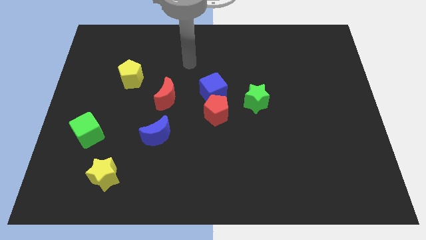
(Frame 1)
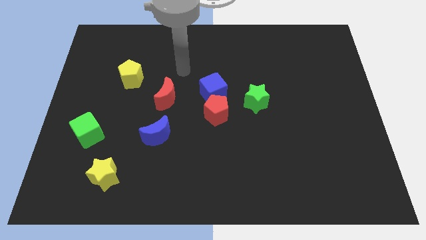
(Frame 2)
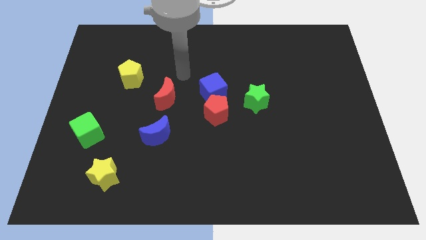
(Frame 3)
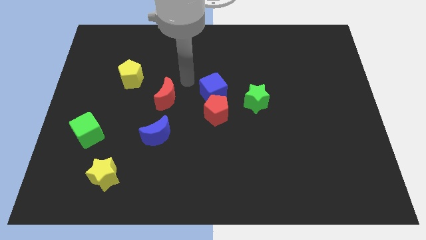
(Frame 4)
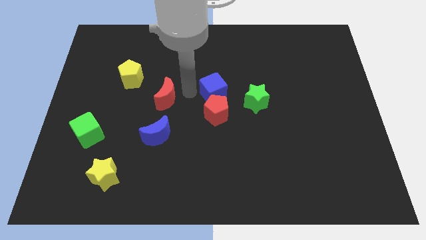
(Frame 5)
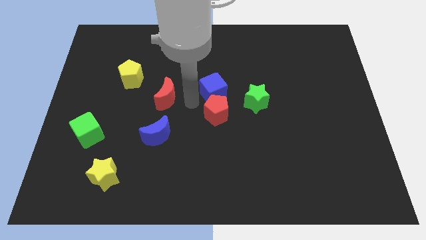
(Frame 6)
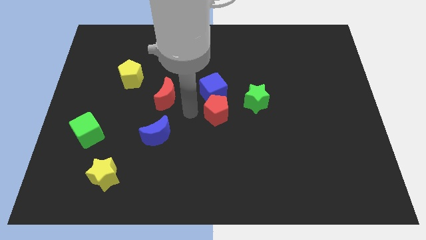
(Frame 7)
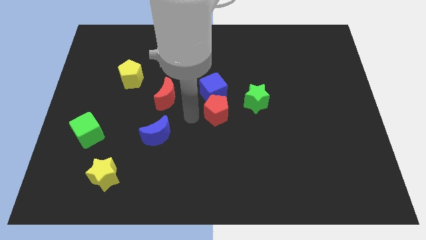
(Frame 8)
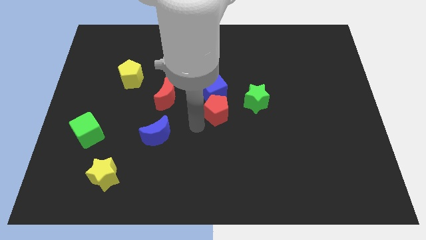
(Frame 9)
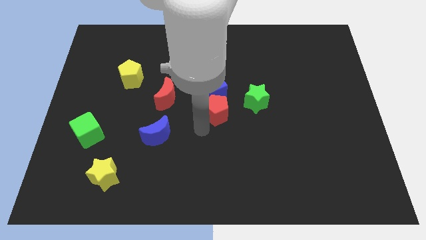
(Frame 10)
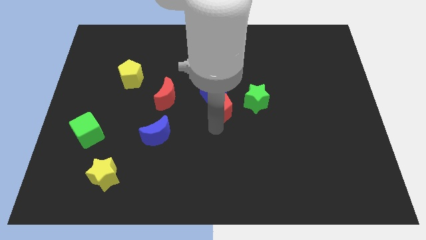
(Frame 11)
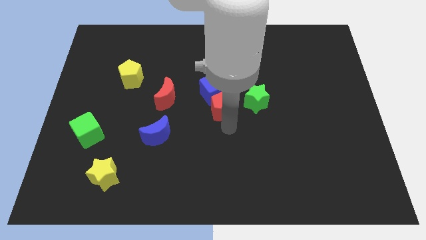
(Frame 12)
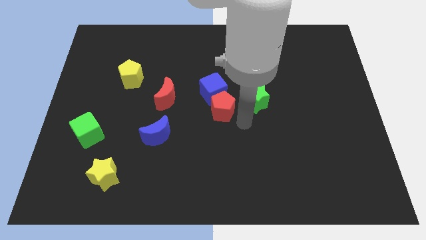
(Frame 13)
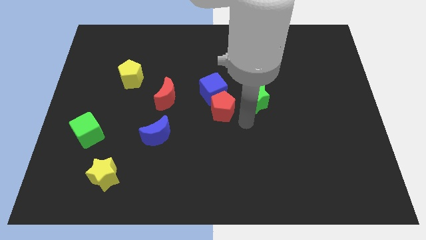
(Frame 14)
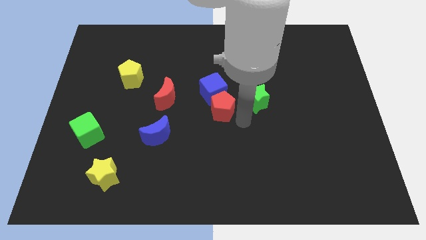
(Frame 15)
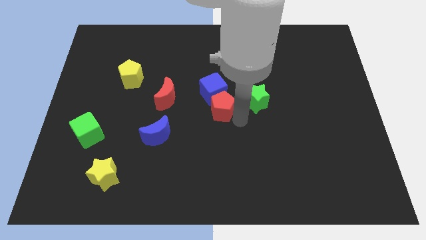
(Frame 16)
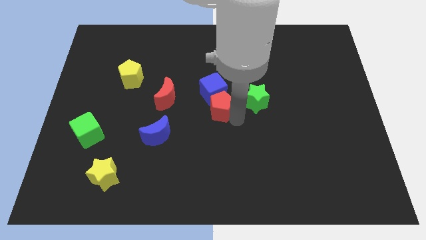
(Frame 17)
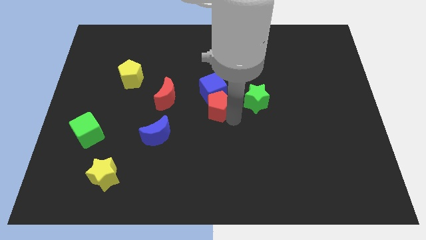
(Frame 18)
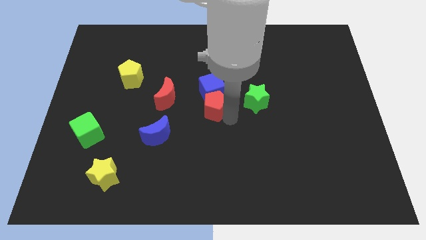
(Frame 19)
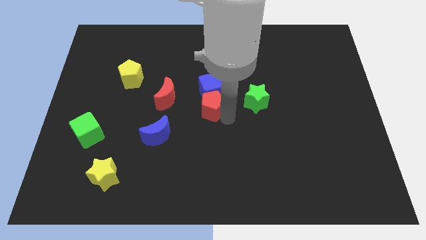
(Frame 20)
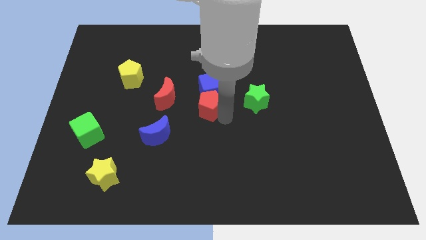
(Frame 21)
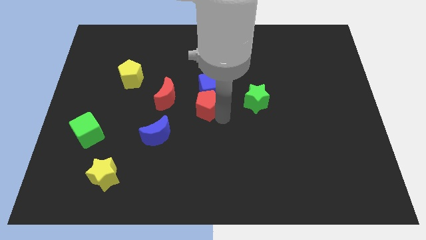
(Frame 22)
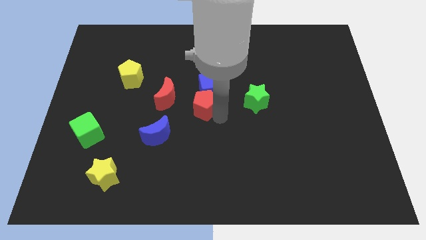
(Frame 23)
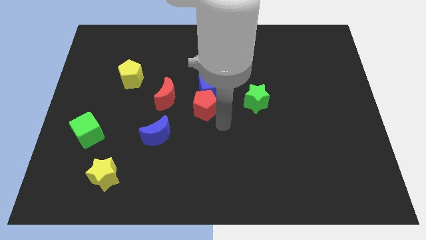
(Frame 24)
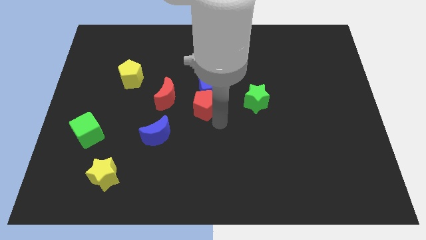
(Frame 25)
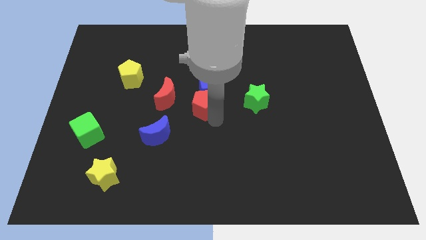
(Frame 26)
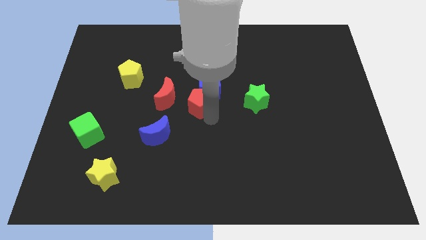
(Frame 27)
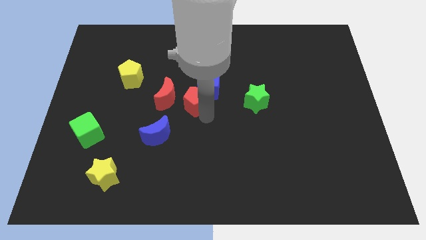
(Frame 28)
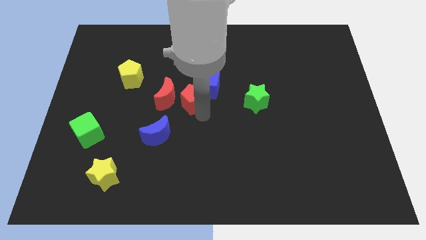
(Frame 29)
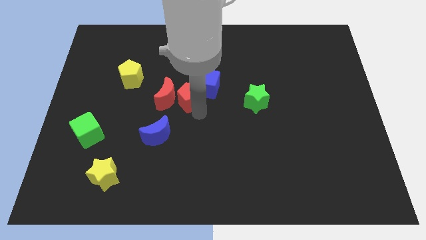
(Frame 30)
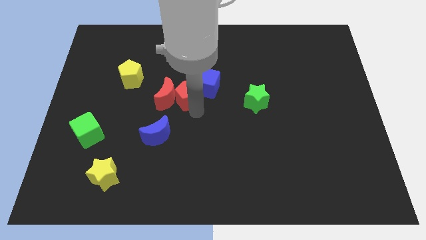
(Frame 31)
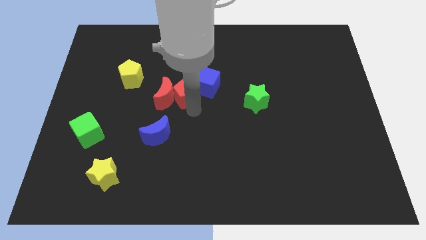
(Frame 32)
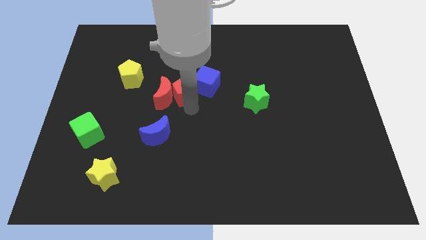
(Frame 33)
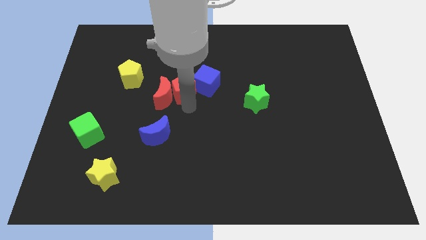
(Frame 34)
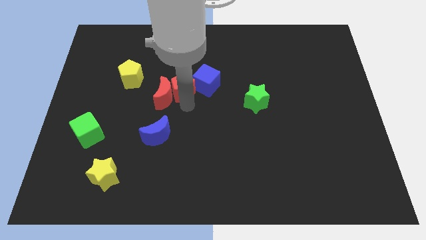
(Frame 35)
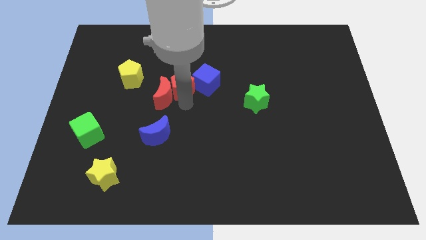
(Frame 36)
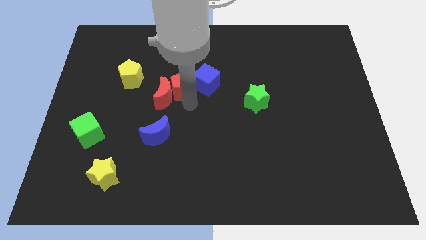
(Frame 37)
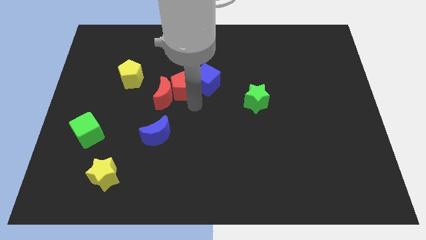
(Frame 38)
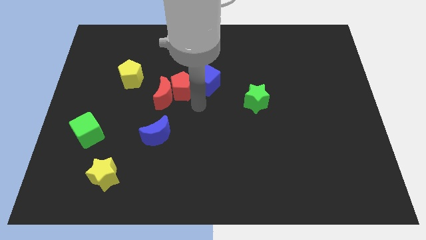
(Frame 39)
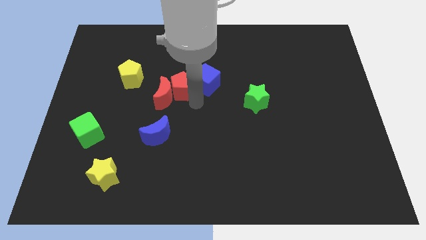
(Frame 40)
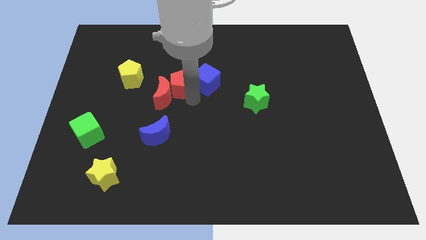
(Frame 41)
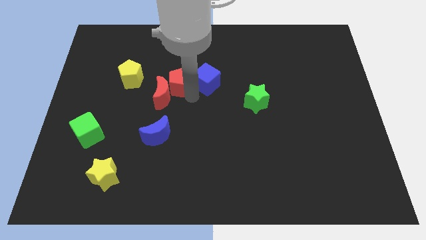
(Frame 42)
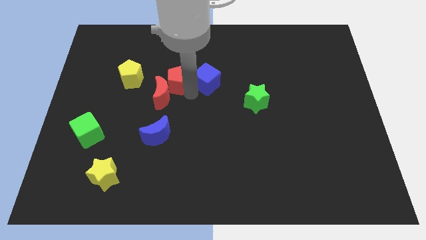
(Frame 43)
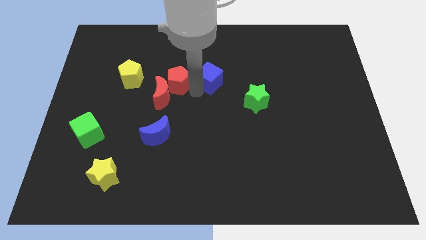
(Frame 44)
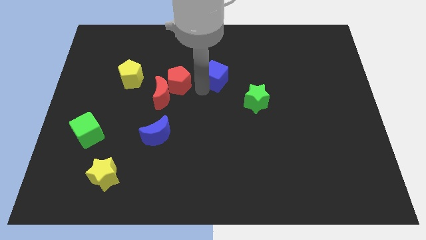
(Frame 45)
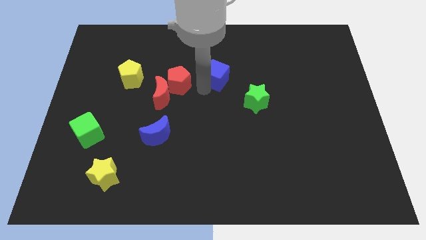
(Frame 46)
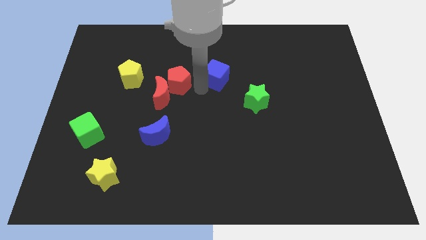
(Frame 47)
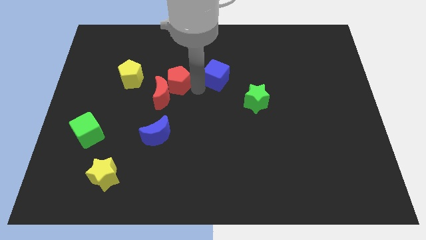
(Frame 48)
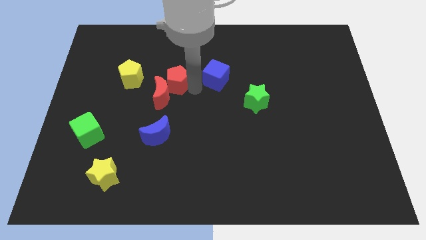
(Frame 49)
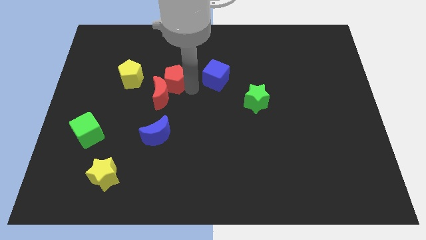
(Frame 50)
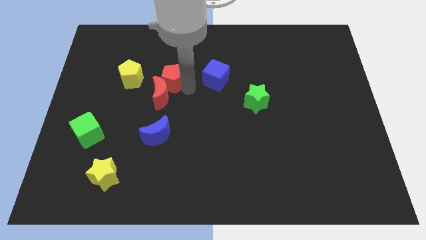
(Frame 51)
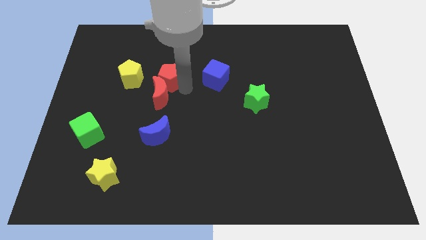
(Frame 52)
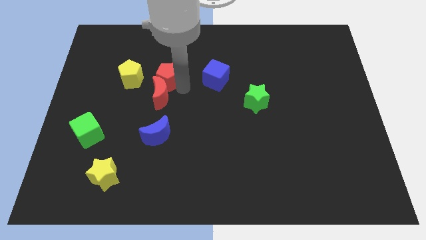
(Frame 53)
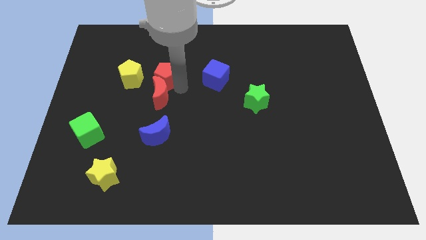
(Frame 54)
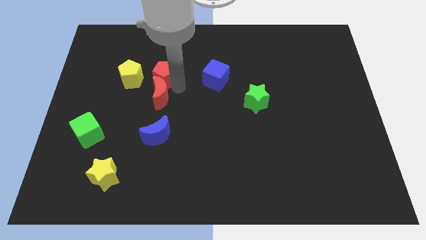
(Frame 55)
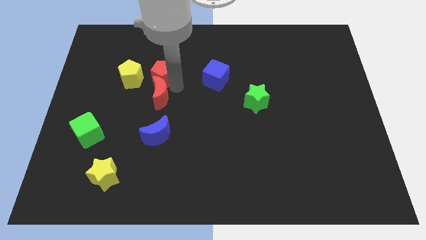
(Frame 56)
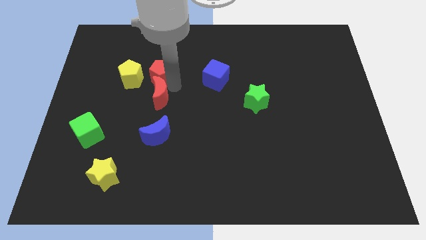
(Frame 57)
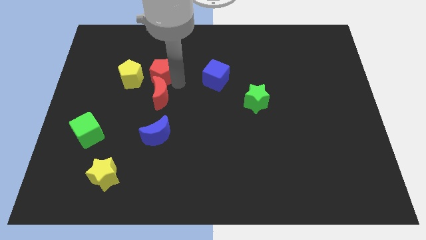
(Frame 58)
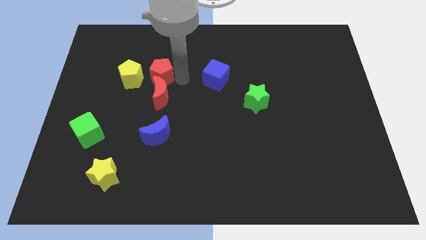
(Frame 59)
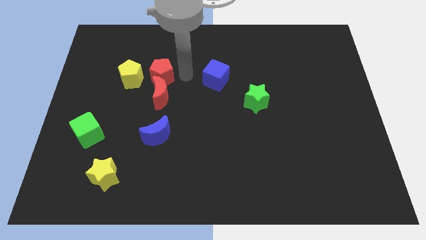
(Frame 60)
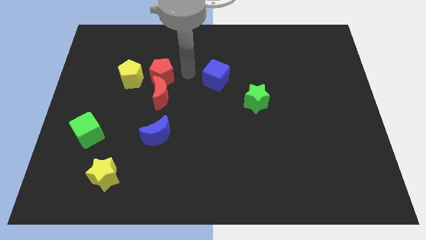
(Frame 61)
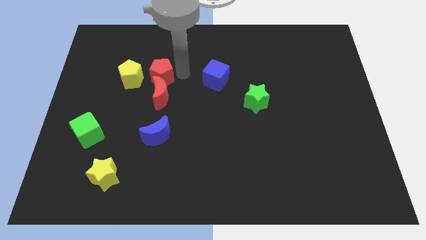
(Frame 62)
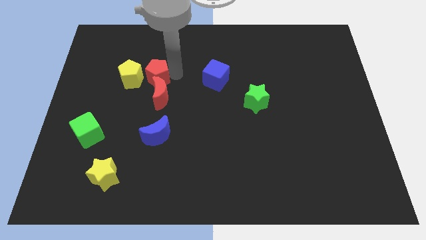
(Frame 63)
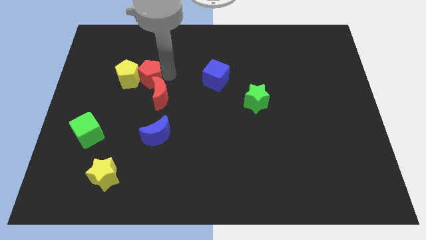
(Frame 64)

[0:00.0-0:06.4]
put the red pentagon close to the yellow pentagon

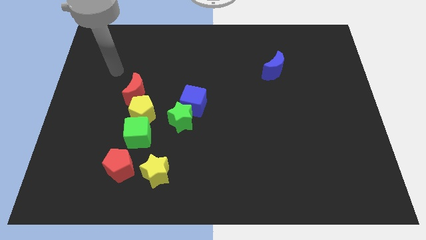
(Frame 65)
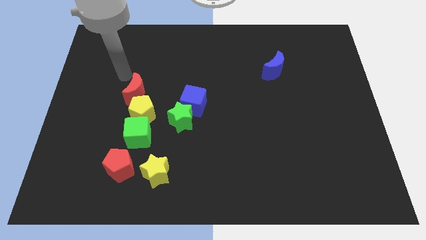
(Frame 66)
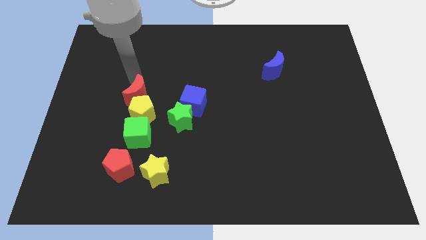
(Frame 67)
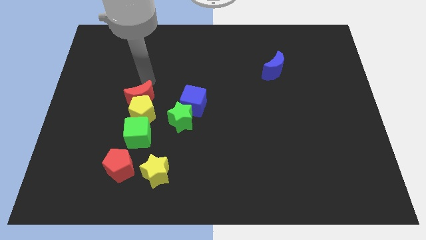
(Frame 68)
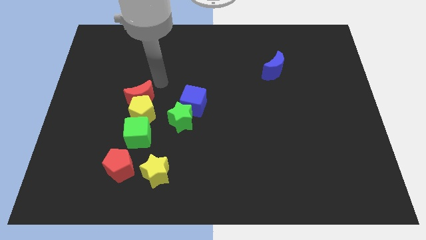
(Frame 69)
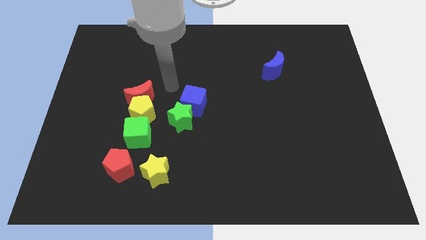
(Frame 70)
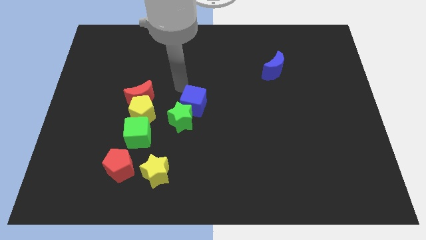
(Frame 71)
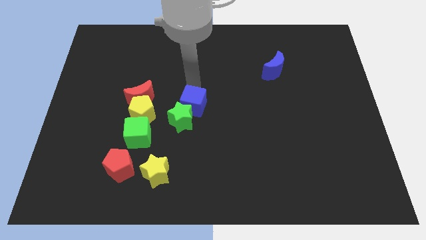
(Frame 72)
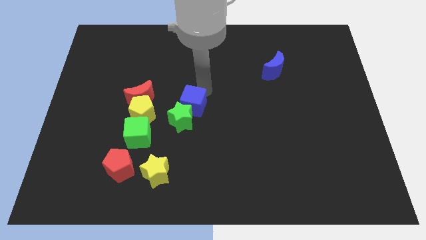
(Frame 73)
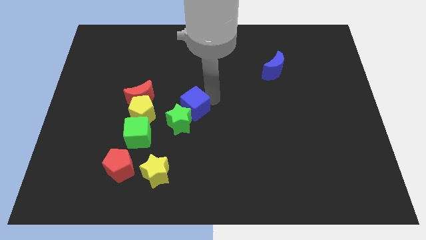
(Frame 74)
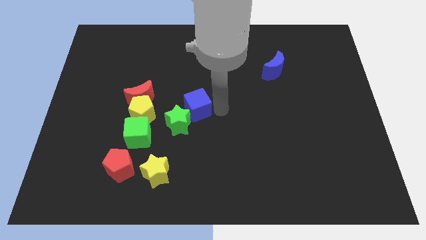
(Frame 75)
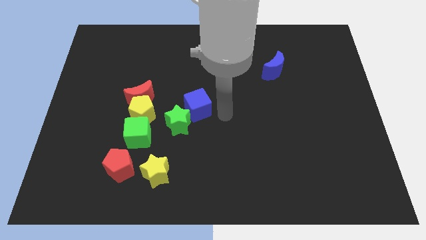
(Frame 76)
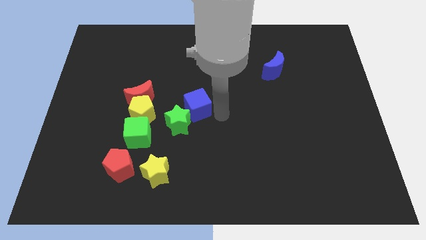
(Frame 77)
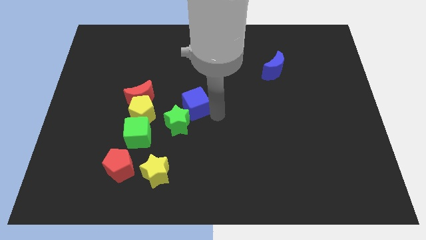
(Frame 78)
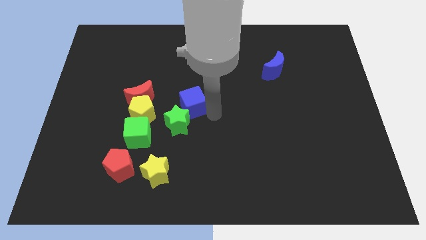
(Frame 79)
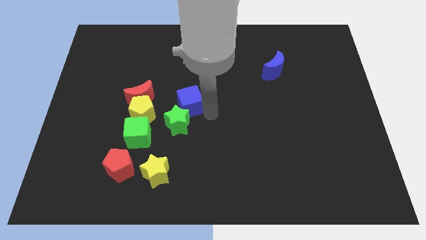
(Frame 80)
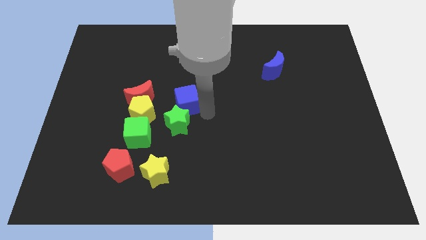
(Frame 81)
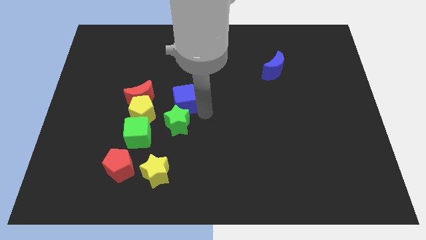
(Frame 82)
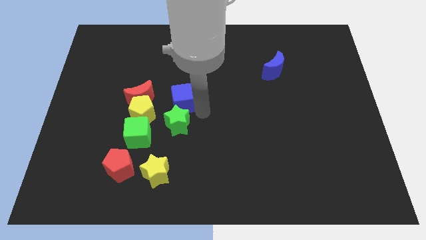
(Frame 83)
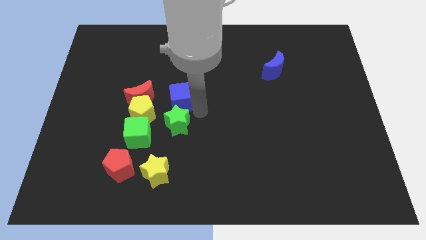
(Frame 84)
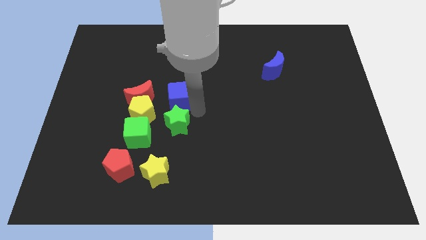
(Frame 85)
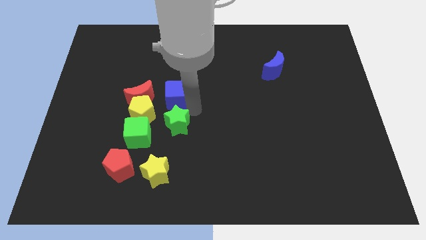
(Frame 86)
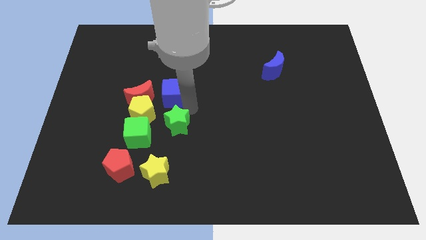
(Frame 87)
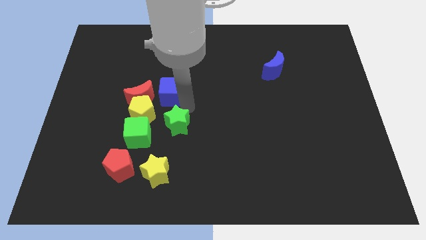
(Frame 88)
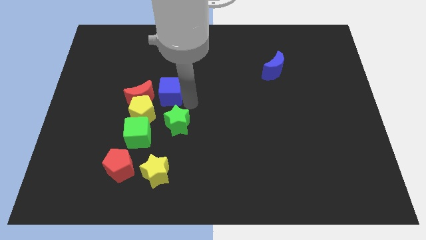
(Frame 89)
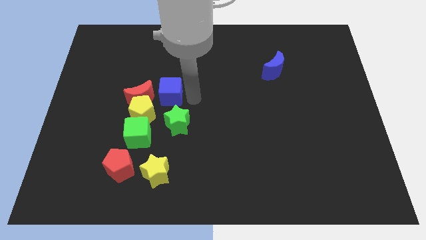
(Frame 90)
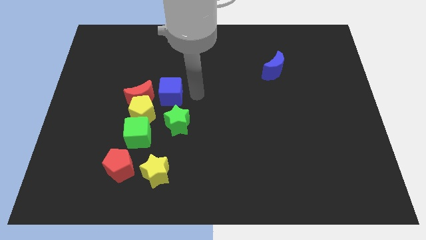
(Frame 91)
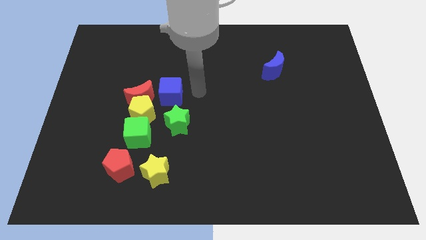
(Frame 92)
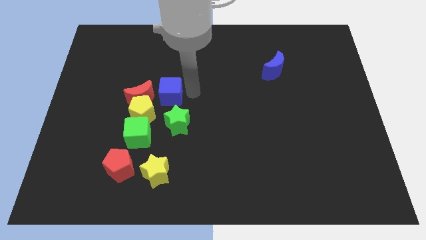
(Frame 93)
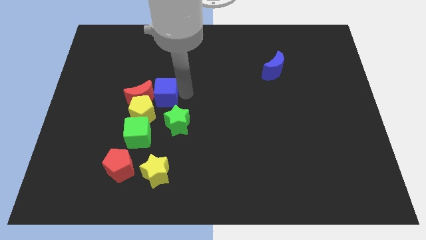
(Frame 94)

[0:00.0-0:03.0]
push the blue cube towards the red moon
